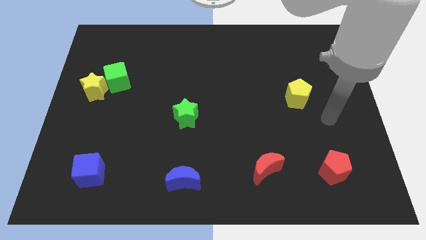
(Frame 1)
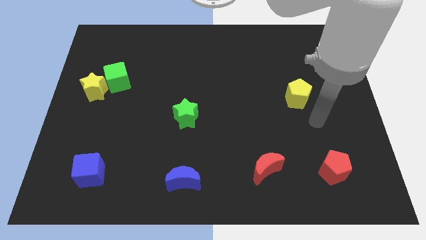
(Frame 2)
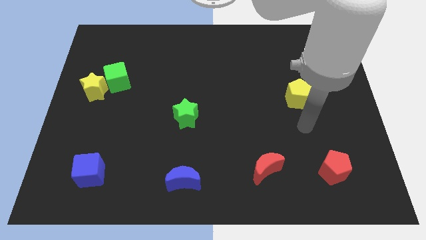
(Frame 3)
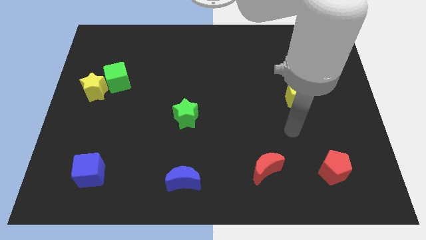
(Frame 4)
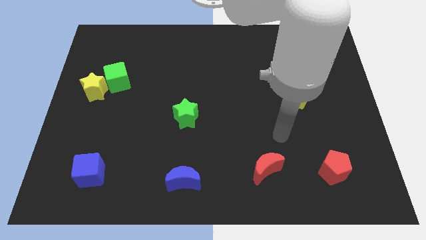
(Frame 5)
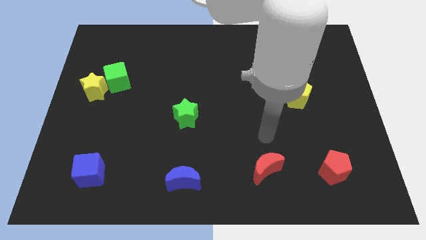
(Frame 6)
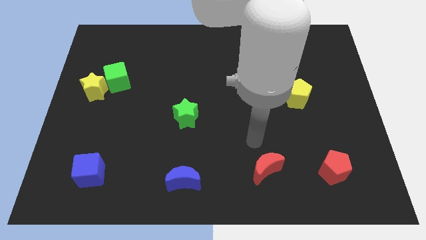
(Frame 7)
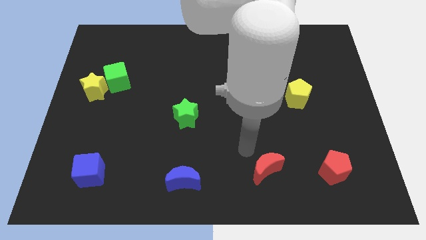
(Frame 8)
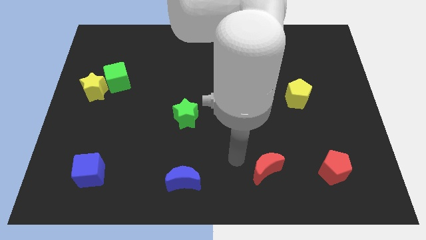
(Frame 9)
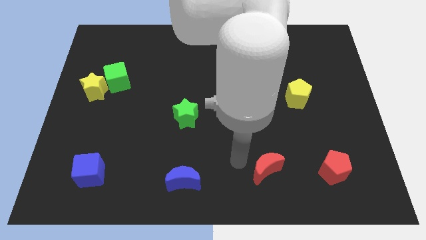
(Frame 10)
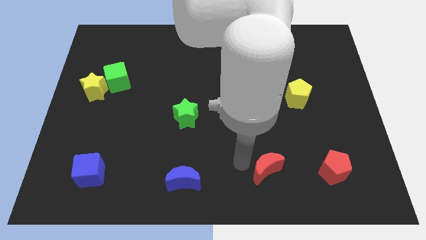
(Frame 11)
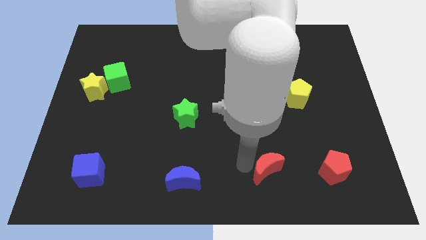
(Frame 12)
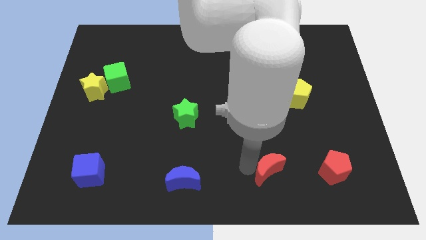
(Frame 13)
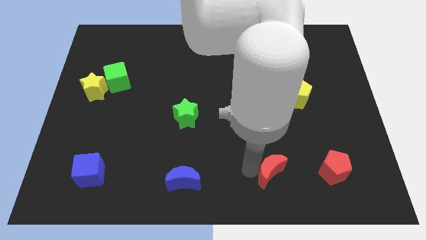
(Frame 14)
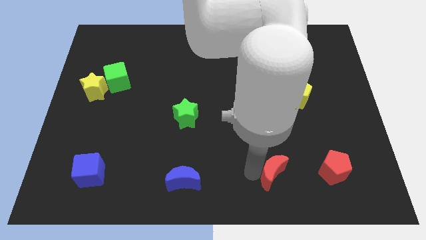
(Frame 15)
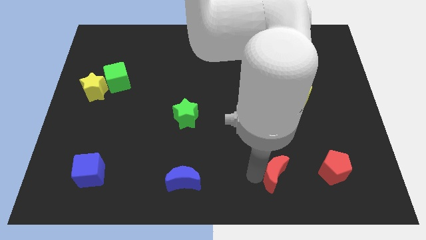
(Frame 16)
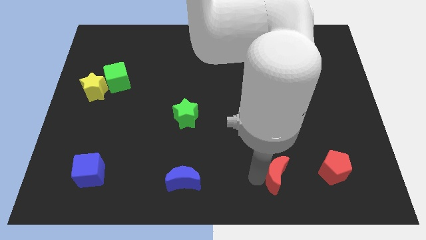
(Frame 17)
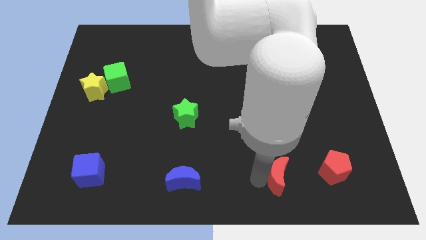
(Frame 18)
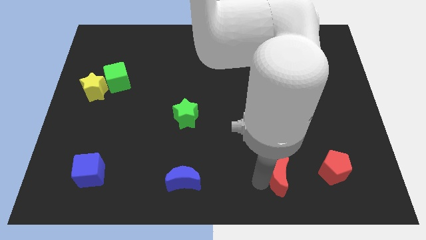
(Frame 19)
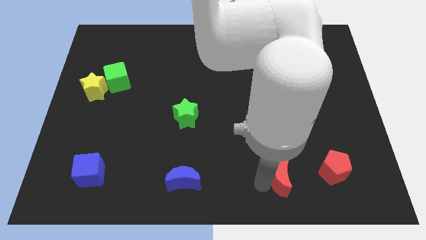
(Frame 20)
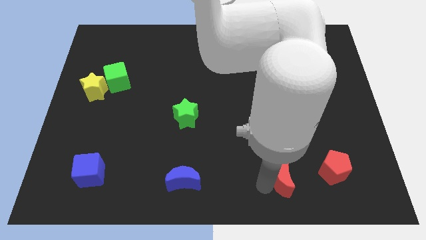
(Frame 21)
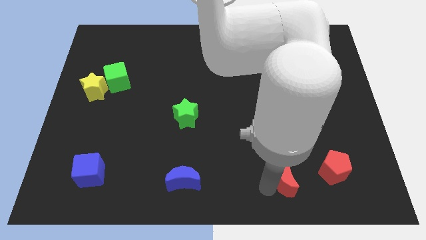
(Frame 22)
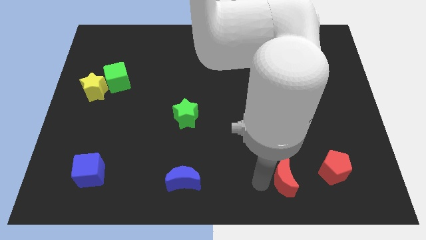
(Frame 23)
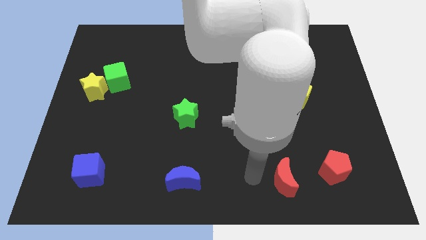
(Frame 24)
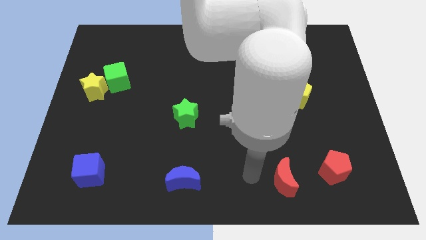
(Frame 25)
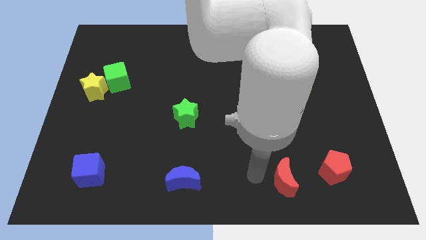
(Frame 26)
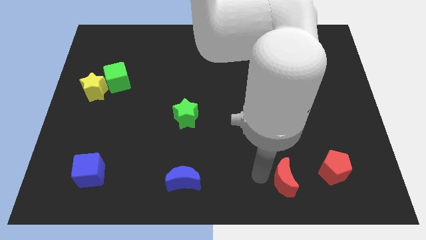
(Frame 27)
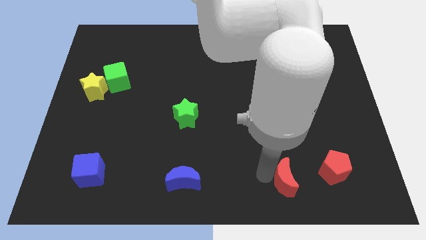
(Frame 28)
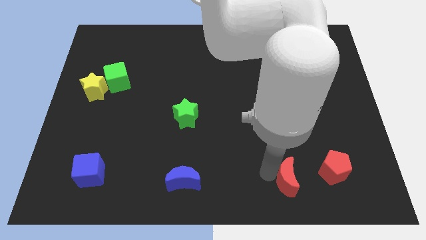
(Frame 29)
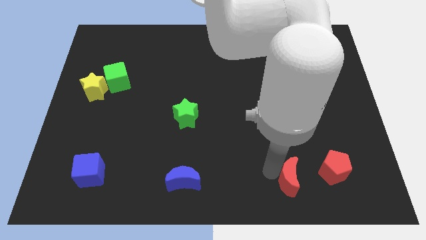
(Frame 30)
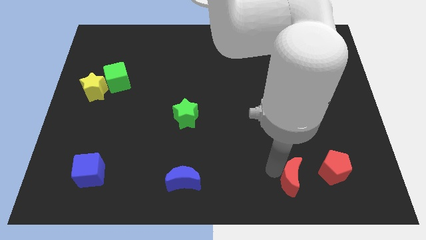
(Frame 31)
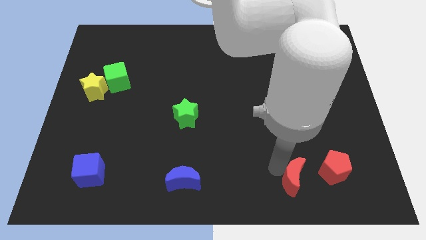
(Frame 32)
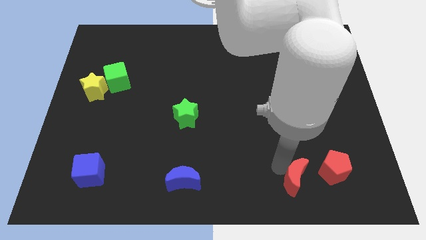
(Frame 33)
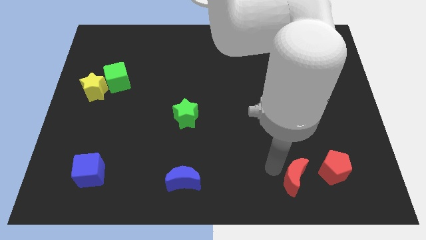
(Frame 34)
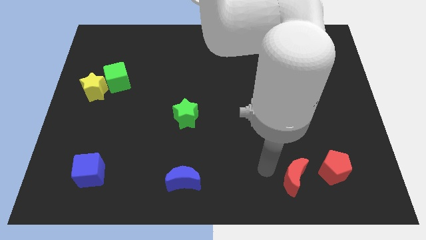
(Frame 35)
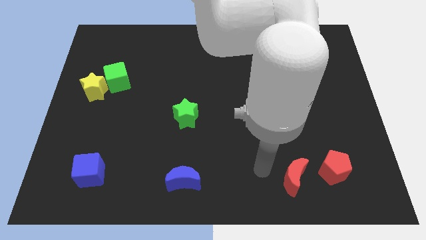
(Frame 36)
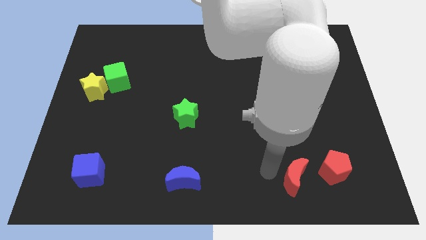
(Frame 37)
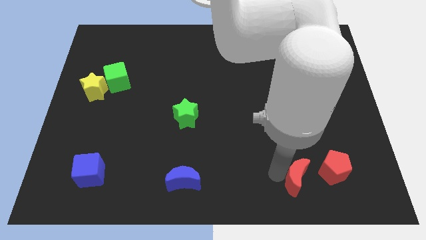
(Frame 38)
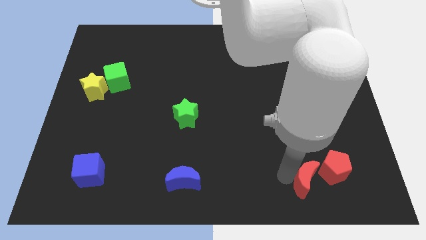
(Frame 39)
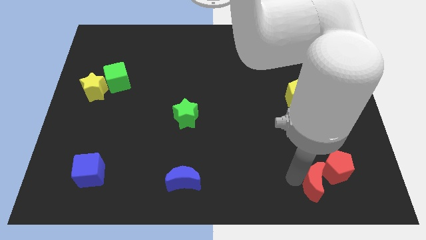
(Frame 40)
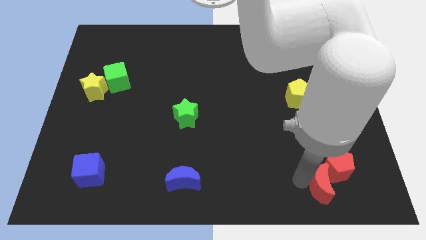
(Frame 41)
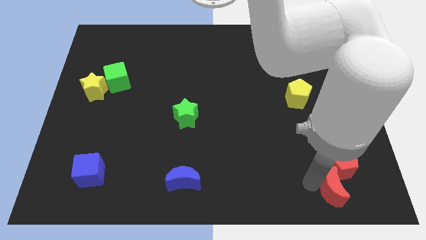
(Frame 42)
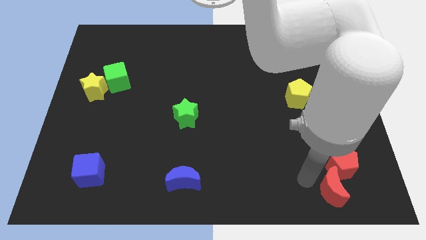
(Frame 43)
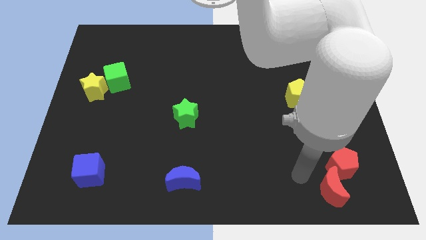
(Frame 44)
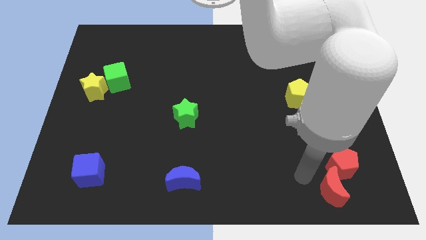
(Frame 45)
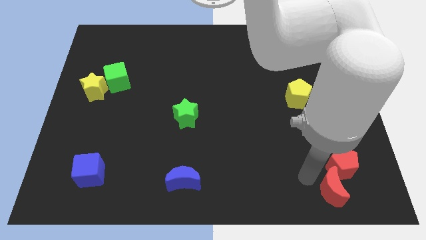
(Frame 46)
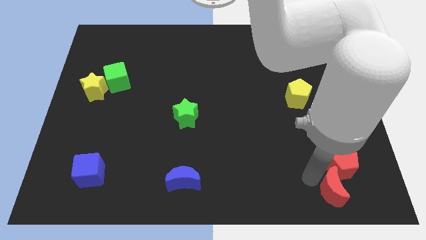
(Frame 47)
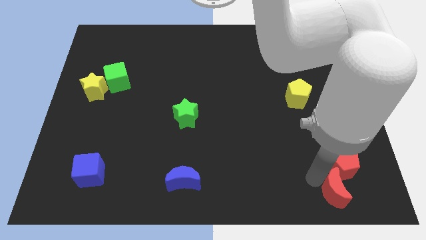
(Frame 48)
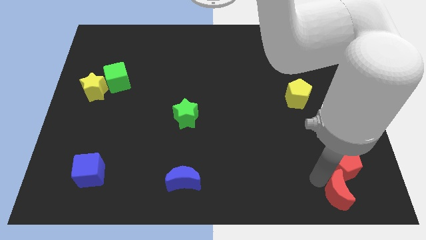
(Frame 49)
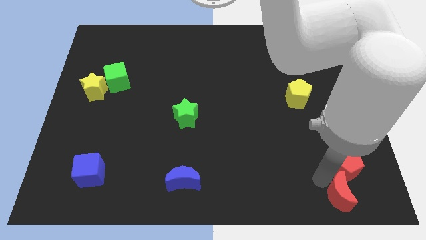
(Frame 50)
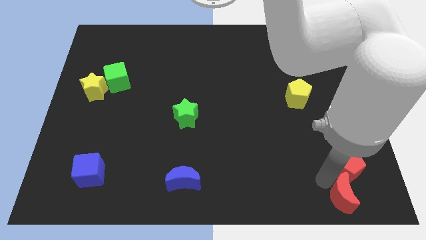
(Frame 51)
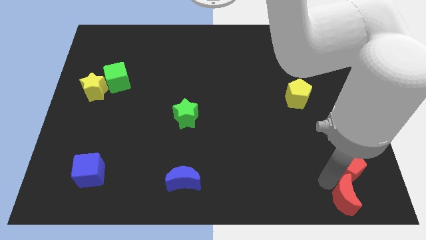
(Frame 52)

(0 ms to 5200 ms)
put the red moon to the bottom right

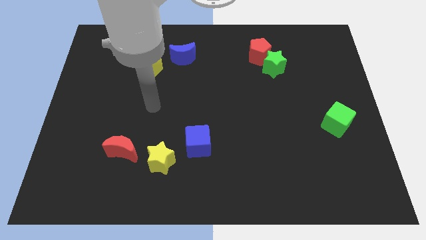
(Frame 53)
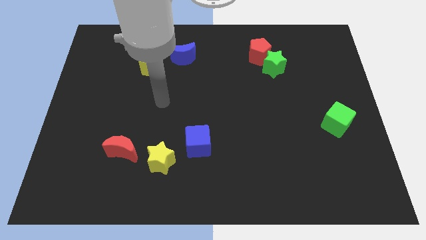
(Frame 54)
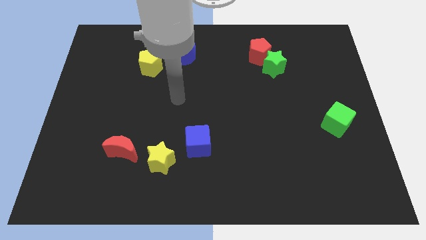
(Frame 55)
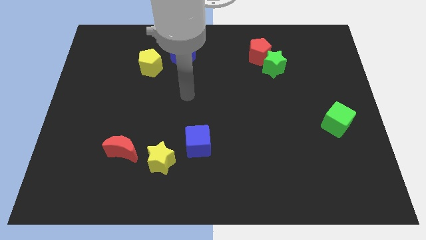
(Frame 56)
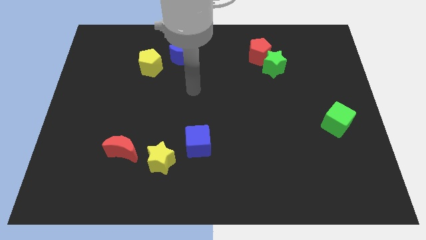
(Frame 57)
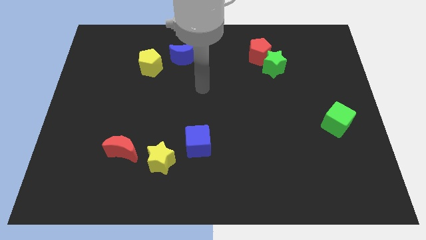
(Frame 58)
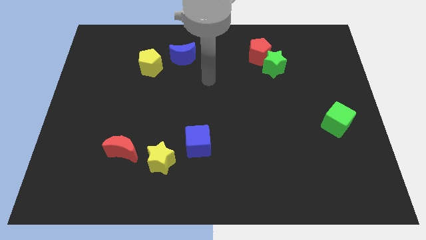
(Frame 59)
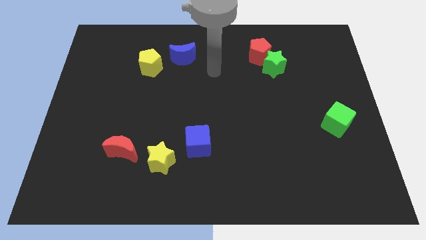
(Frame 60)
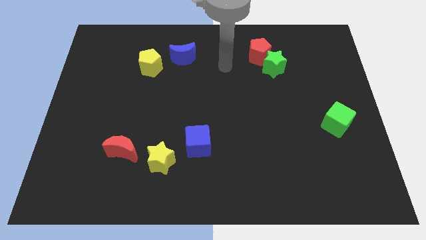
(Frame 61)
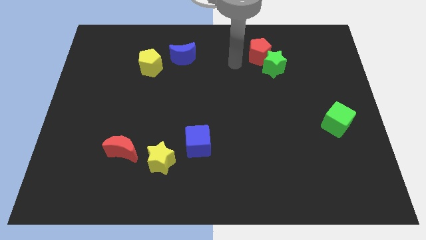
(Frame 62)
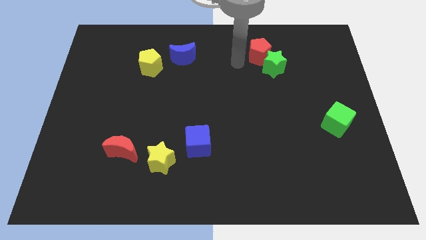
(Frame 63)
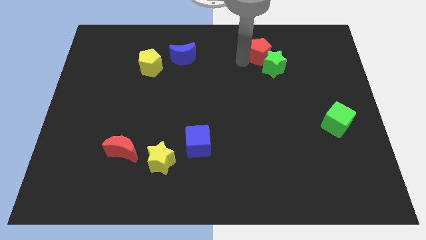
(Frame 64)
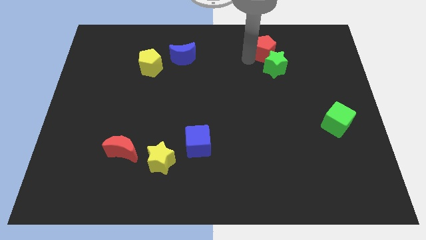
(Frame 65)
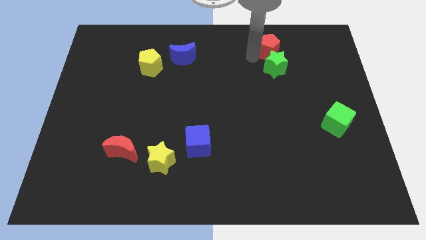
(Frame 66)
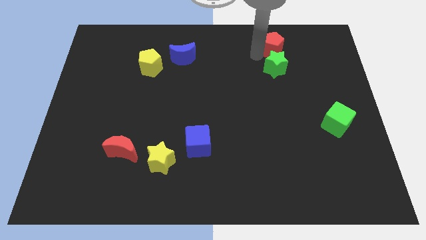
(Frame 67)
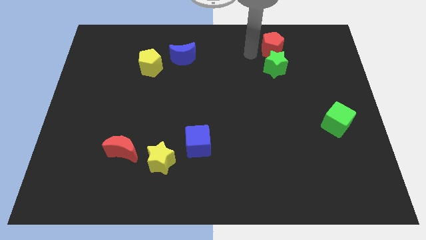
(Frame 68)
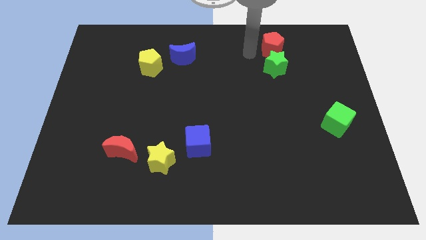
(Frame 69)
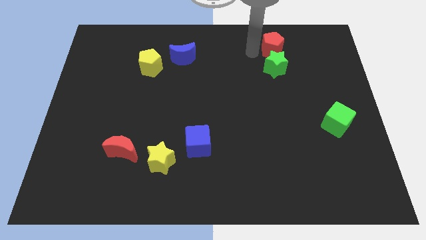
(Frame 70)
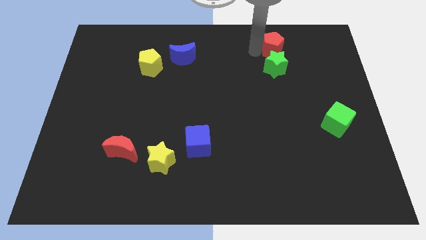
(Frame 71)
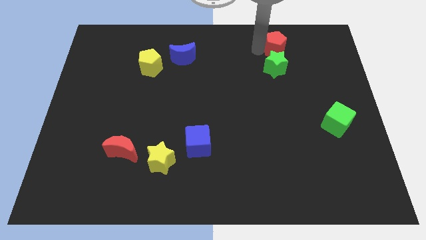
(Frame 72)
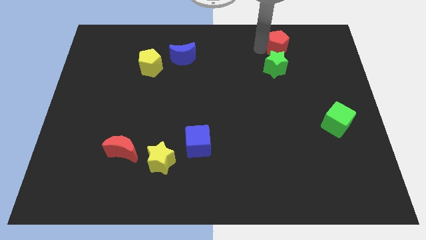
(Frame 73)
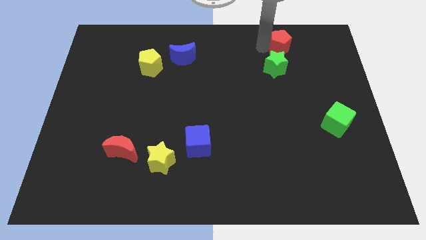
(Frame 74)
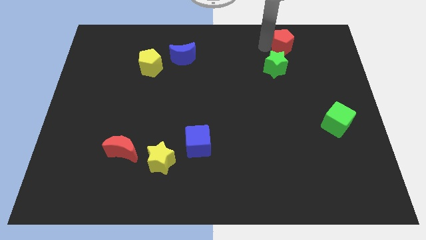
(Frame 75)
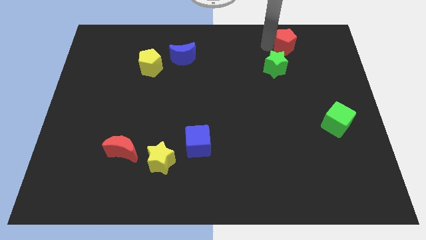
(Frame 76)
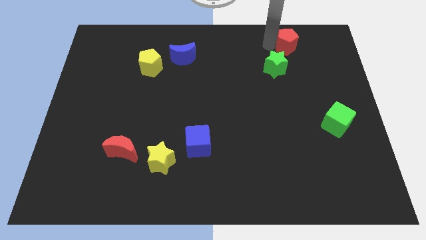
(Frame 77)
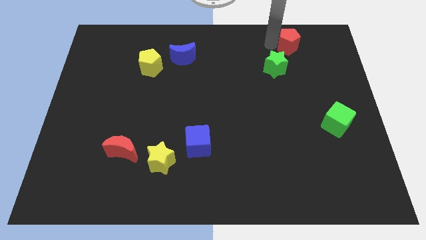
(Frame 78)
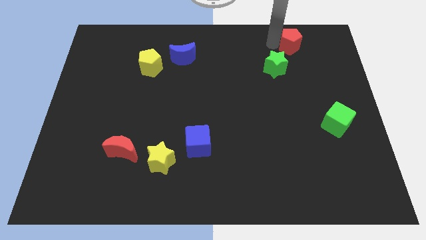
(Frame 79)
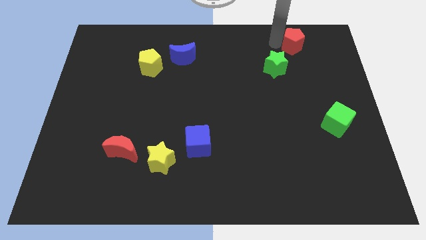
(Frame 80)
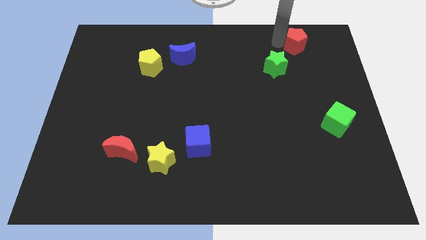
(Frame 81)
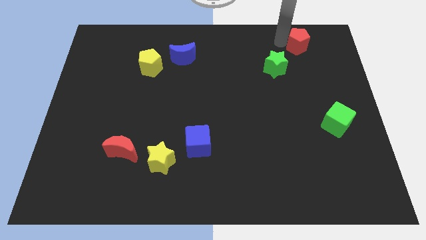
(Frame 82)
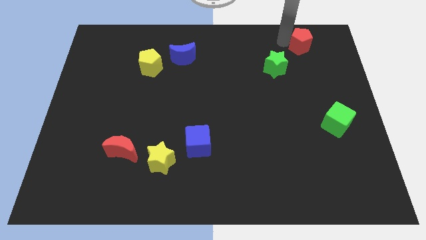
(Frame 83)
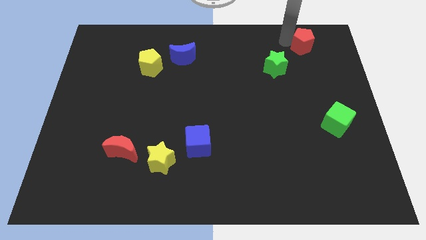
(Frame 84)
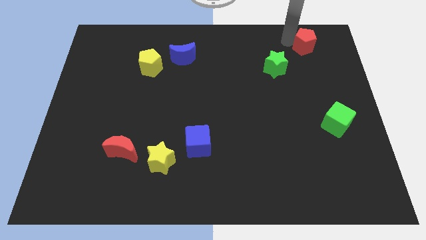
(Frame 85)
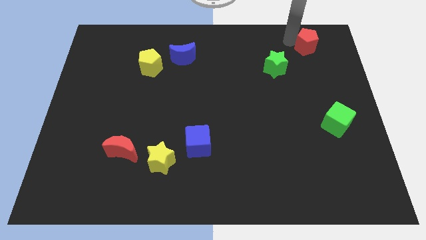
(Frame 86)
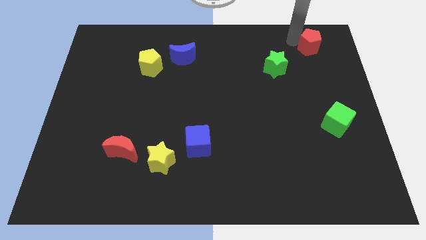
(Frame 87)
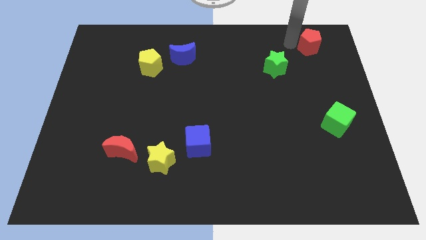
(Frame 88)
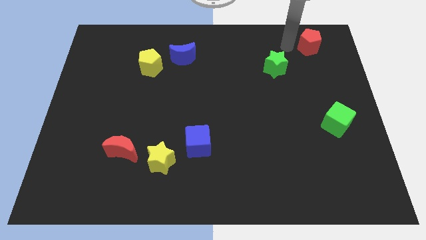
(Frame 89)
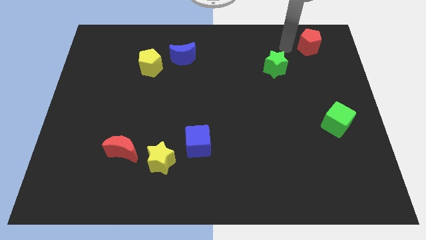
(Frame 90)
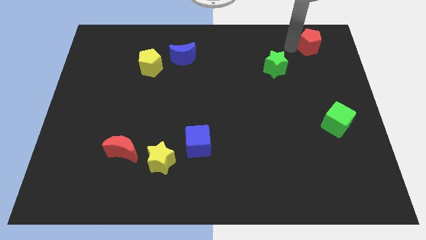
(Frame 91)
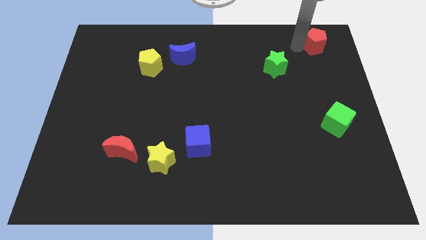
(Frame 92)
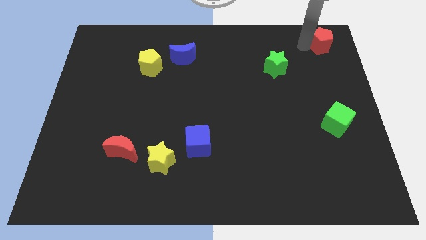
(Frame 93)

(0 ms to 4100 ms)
push the red pentagon to the top right corner
